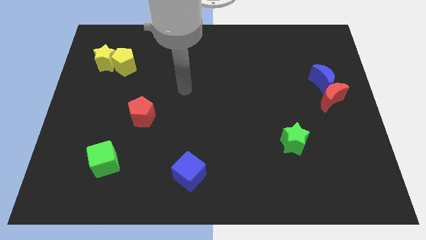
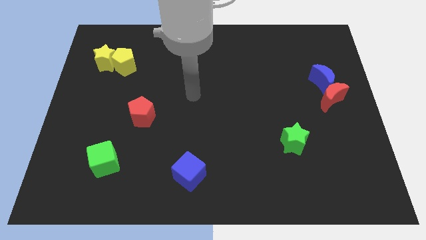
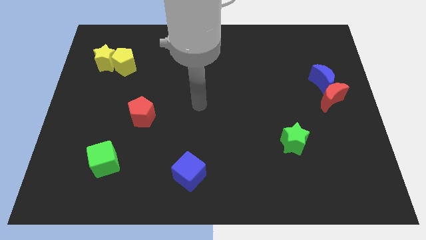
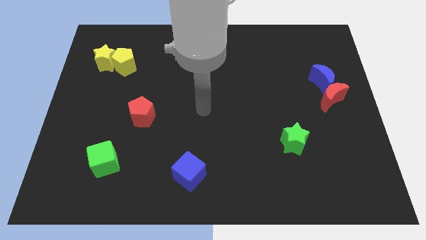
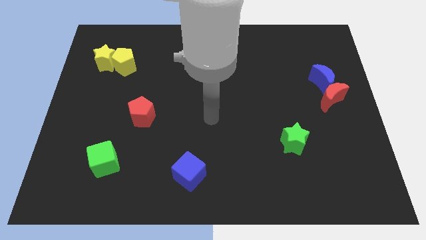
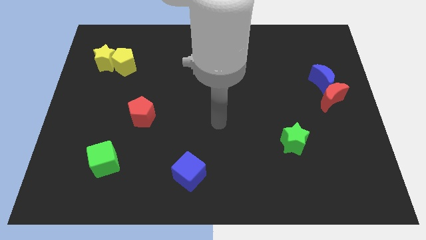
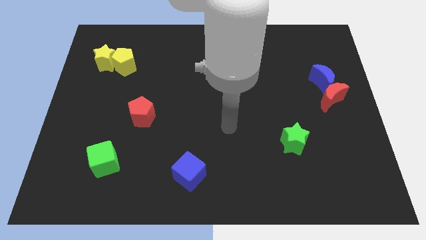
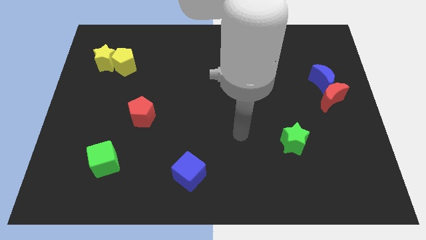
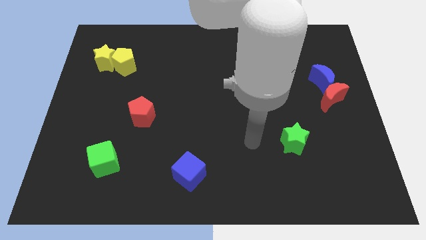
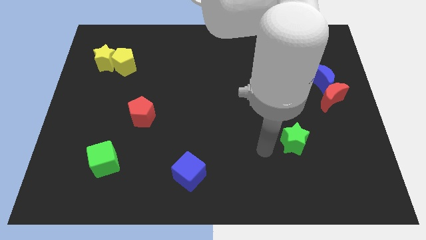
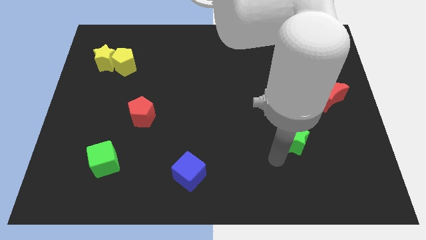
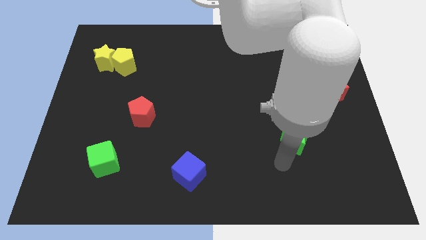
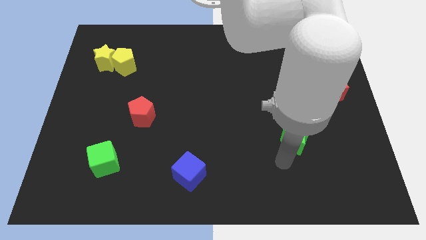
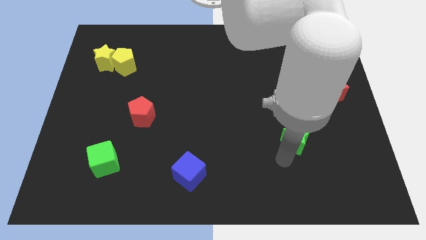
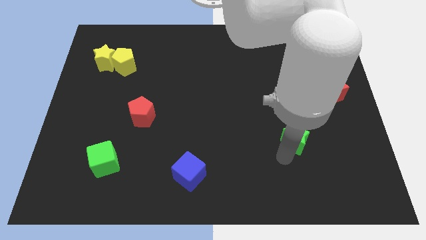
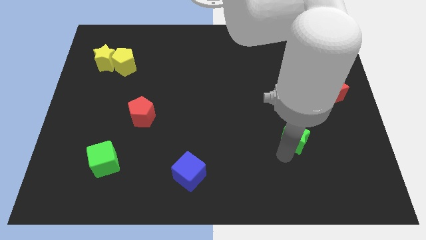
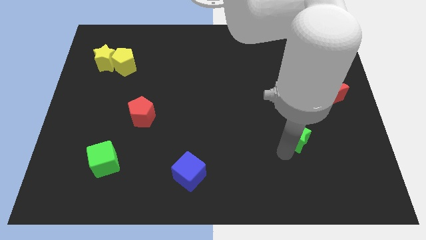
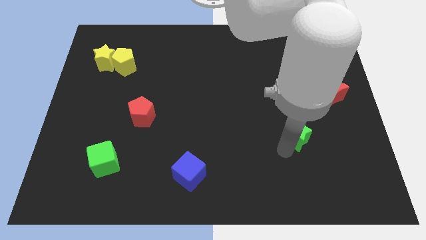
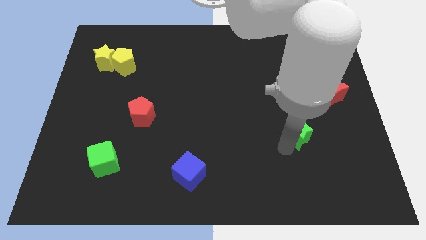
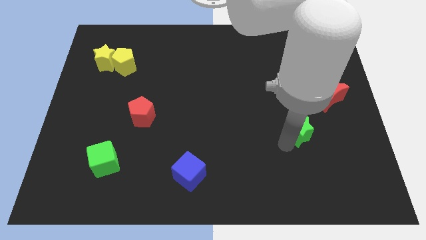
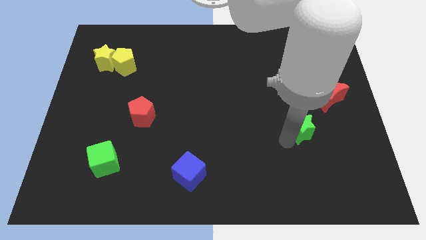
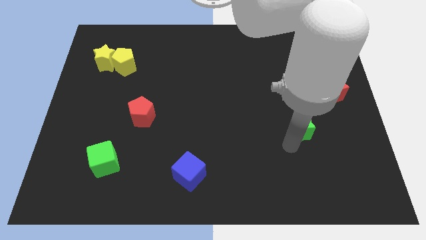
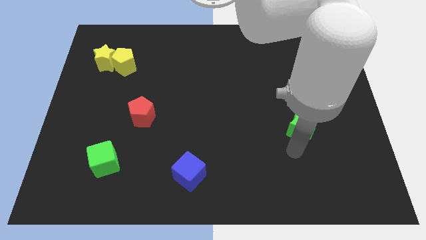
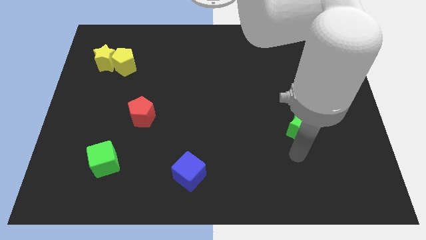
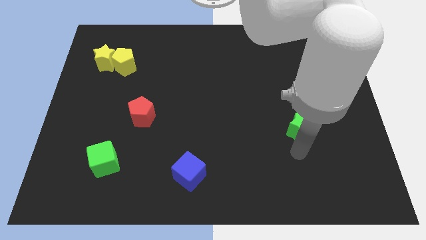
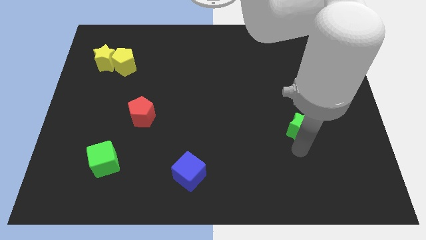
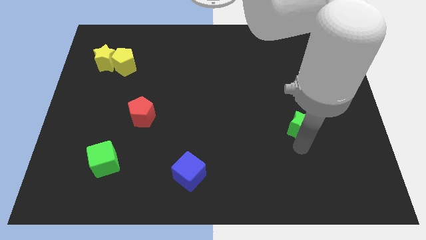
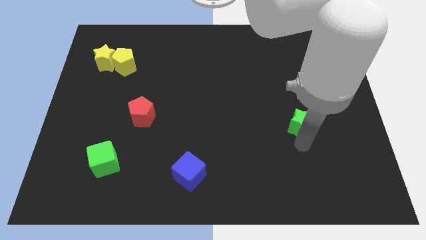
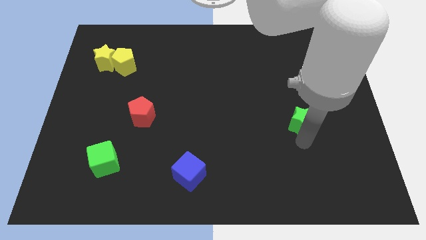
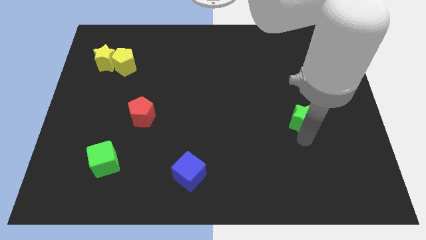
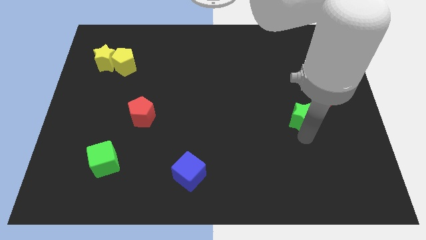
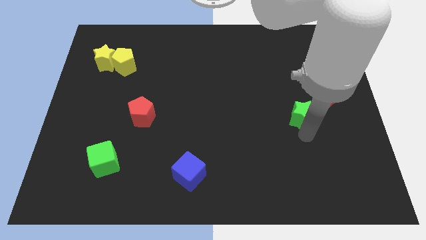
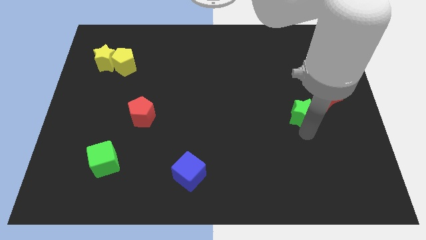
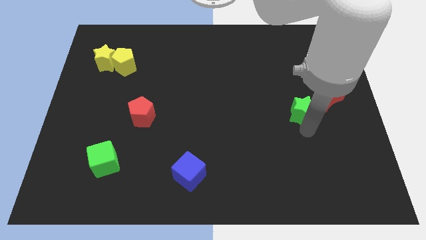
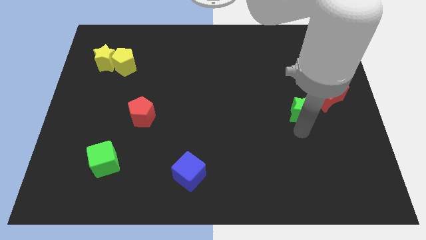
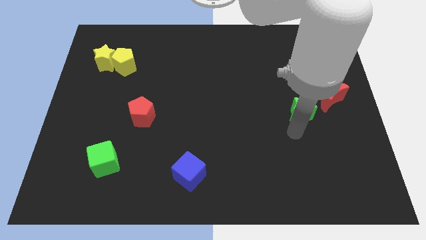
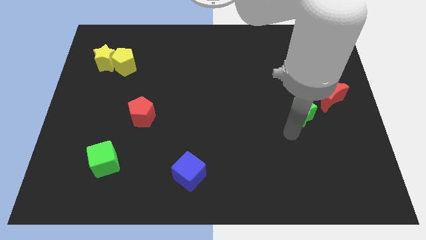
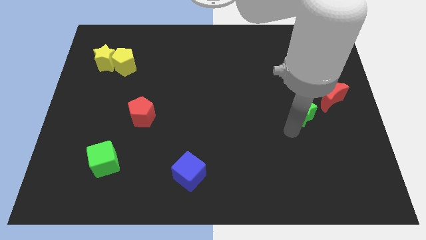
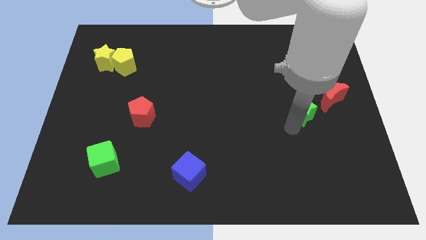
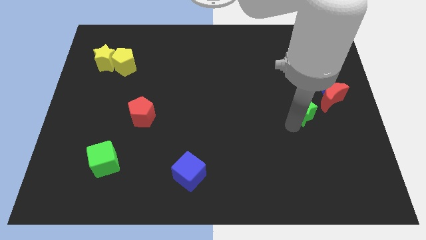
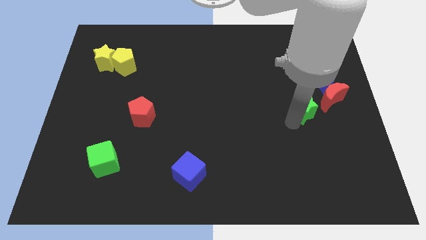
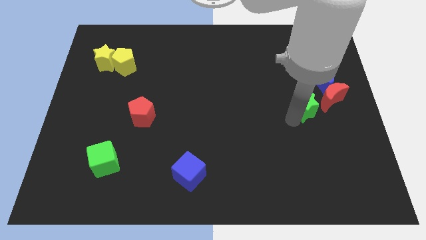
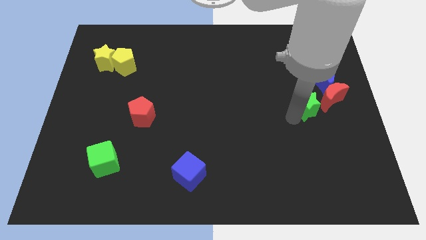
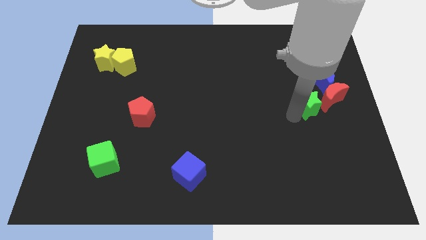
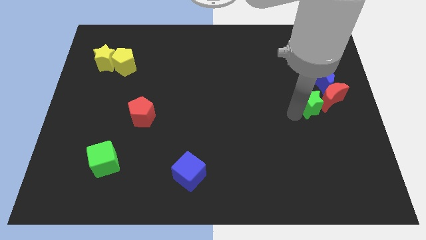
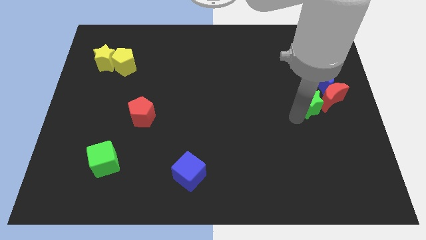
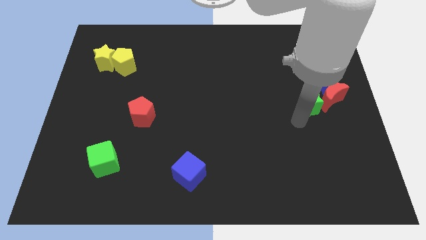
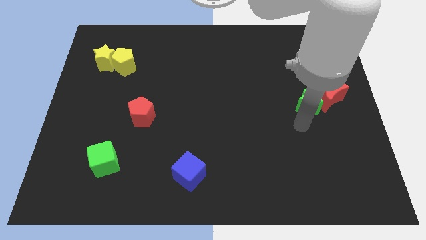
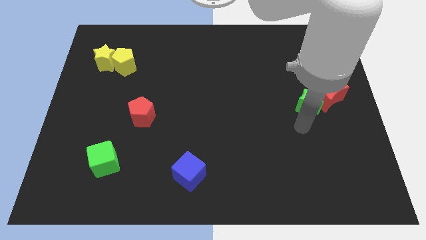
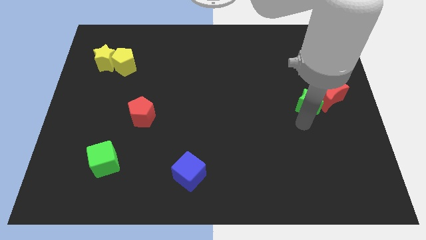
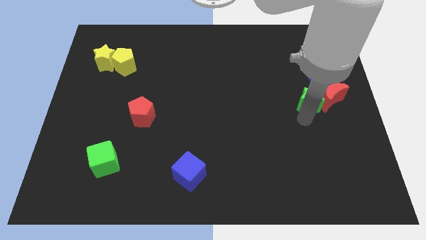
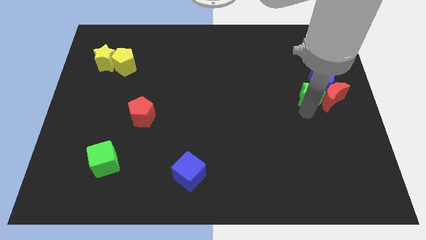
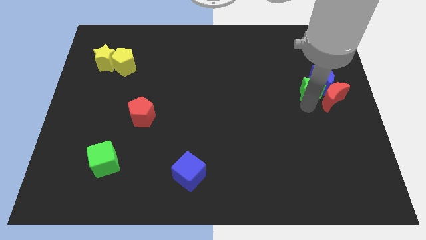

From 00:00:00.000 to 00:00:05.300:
push the green star next to the blue moon

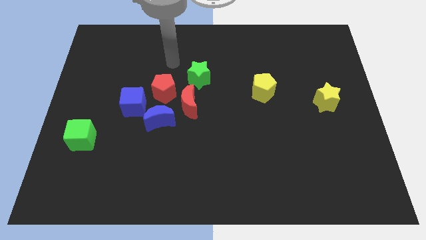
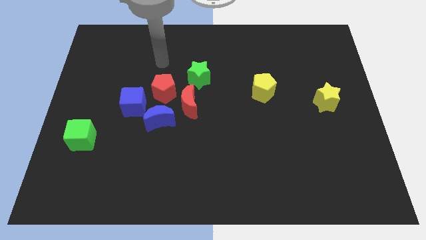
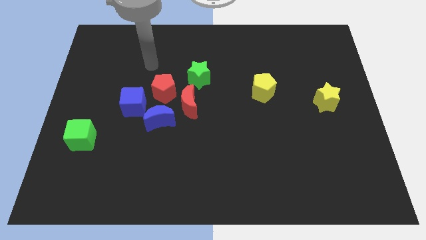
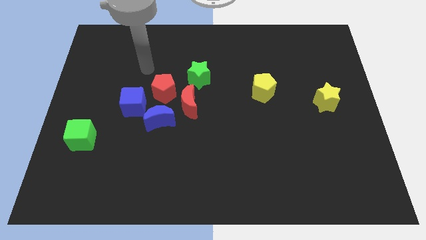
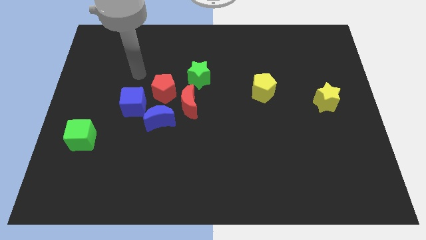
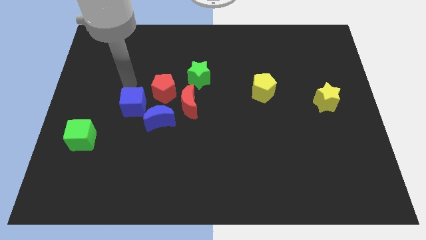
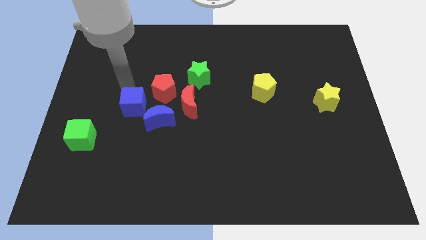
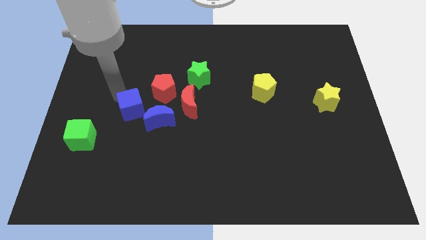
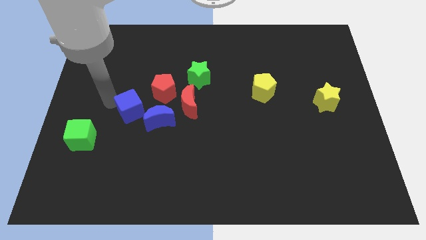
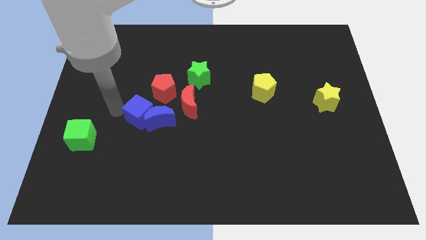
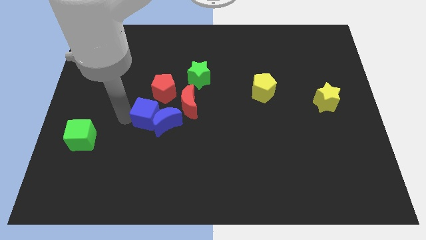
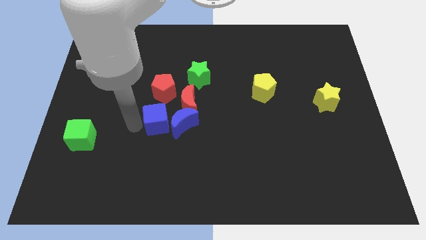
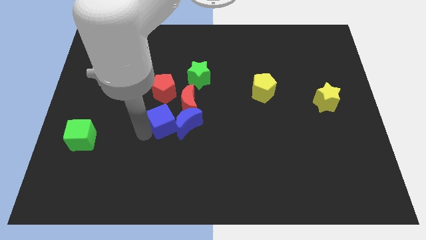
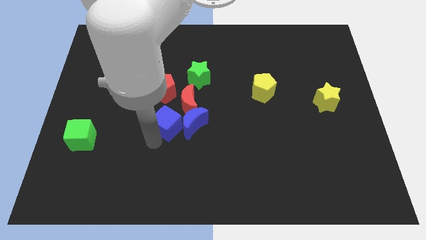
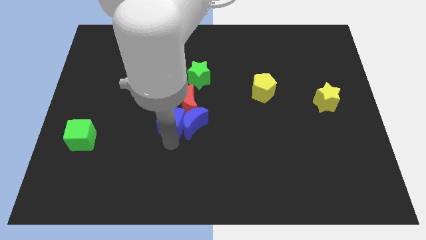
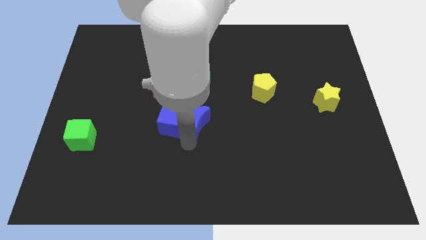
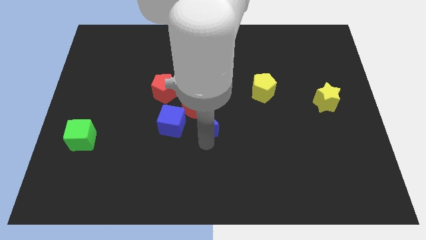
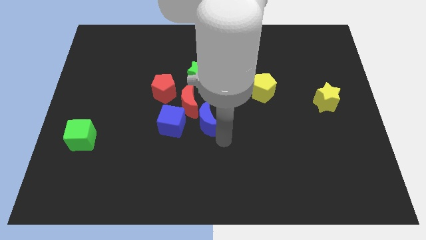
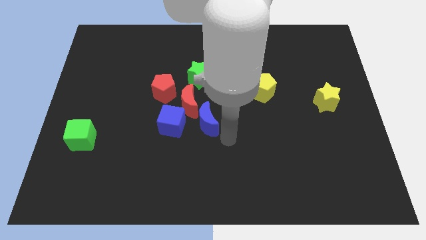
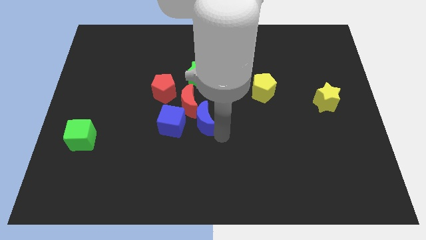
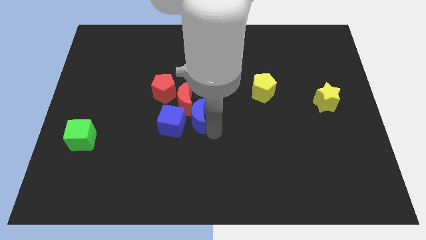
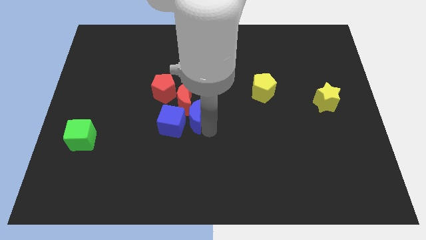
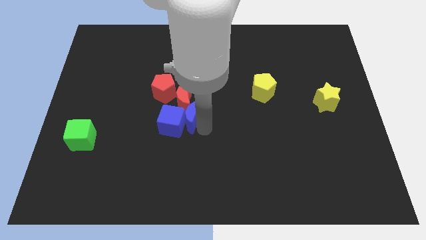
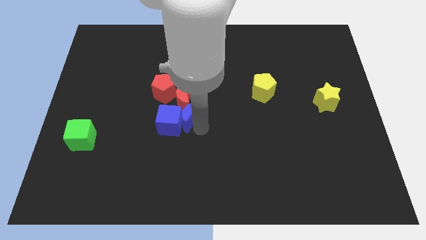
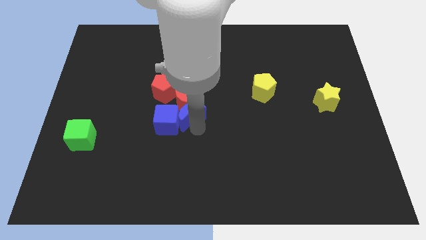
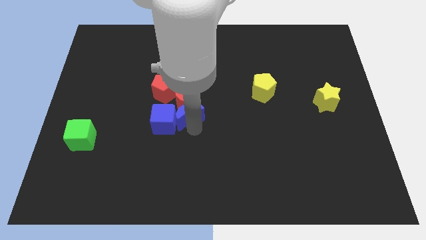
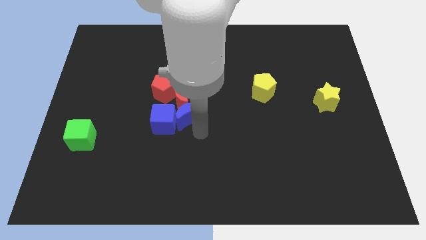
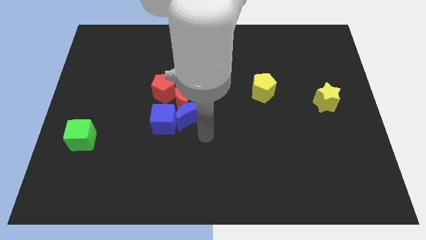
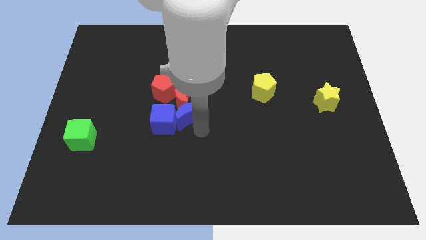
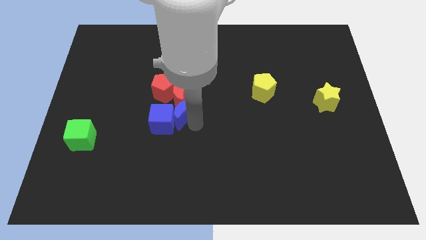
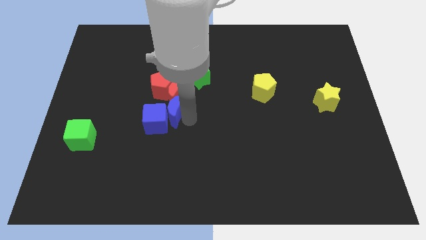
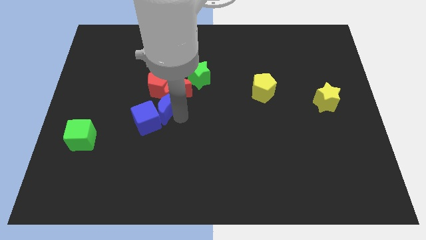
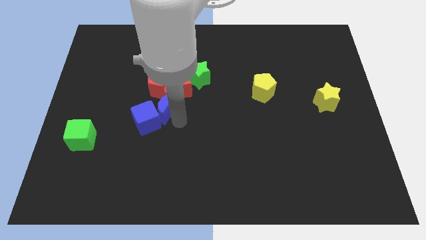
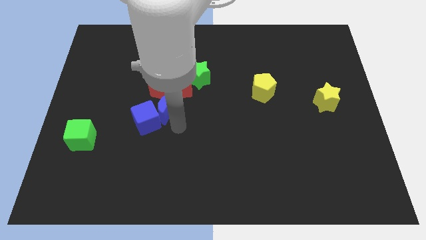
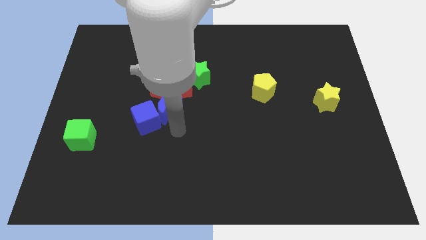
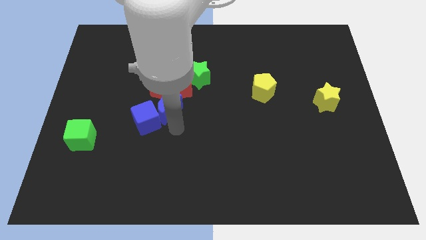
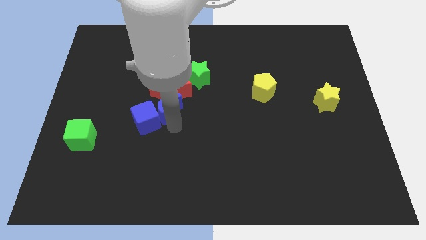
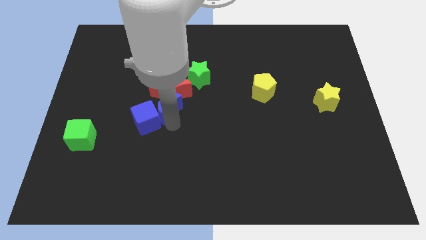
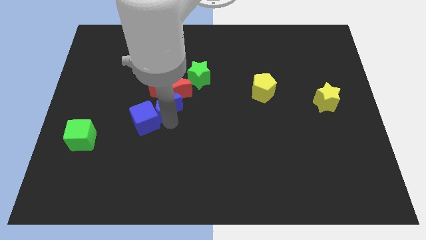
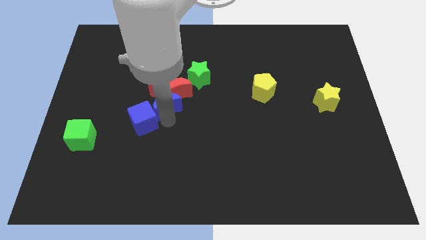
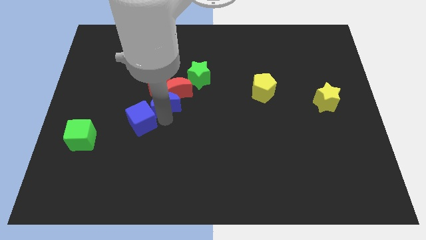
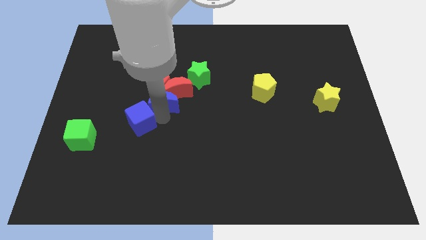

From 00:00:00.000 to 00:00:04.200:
move the blue moon close to the red pentagon
